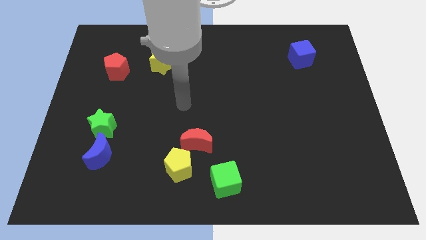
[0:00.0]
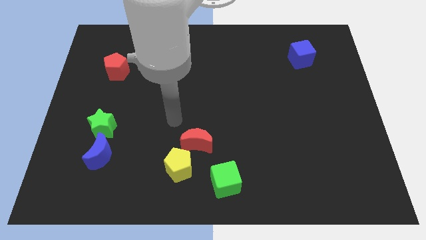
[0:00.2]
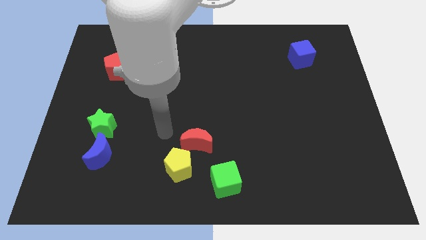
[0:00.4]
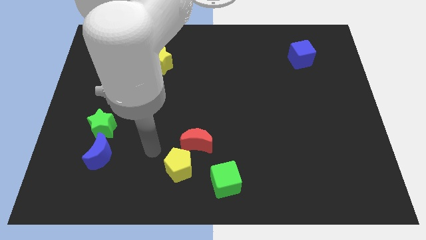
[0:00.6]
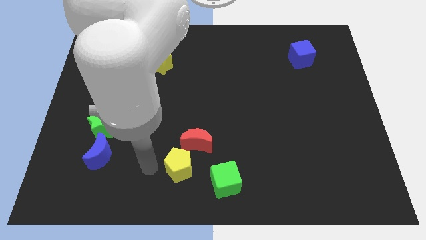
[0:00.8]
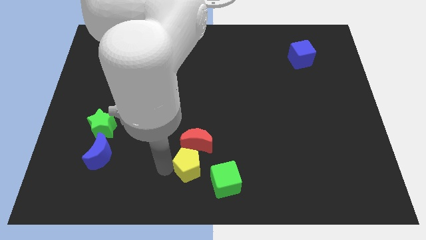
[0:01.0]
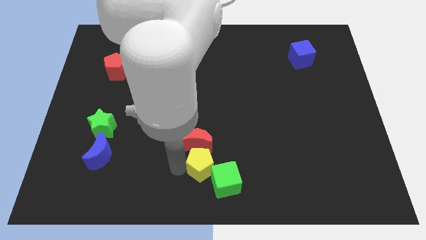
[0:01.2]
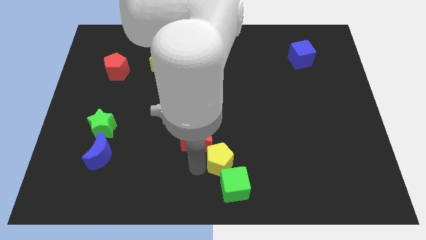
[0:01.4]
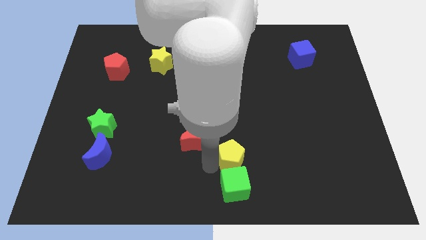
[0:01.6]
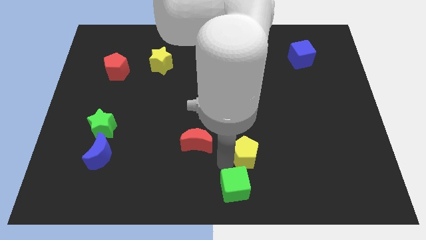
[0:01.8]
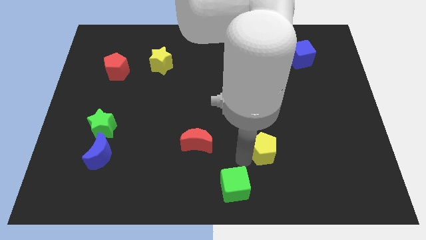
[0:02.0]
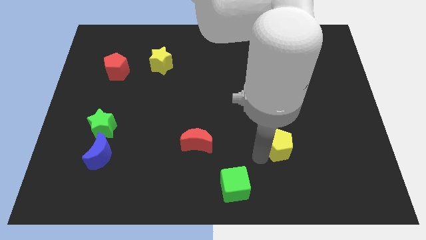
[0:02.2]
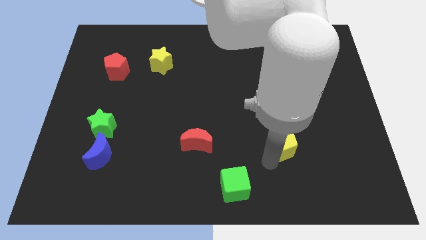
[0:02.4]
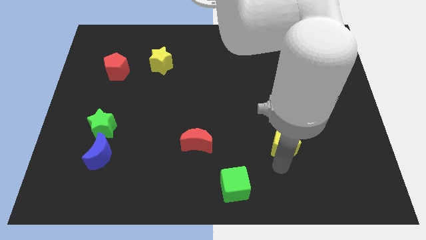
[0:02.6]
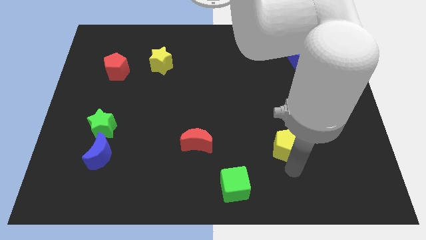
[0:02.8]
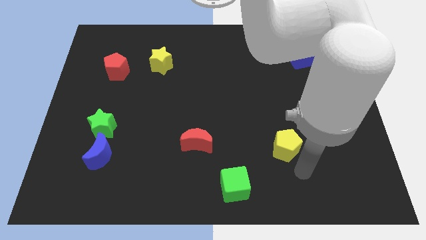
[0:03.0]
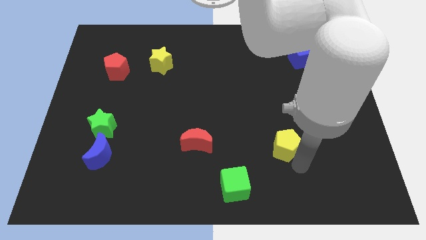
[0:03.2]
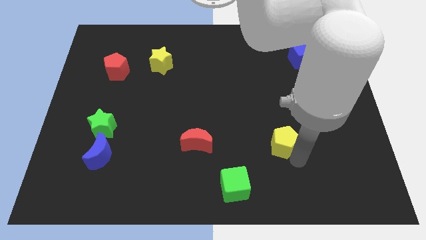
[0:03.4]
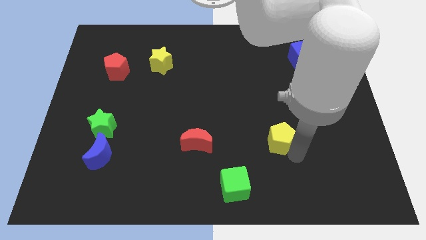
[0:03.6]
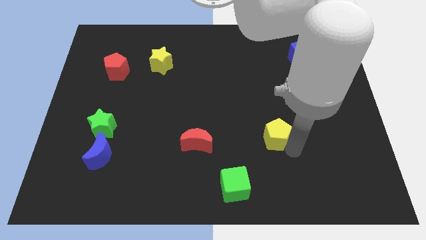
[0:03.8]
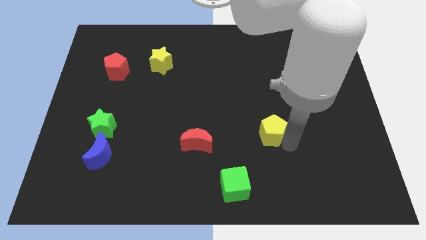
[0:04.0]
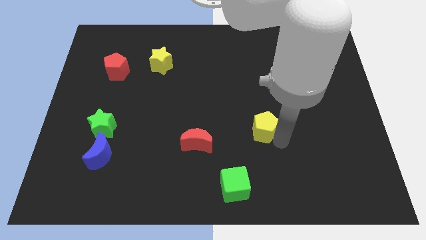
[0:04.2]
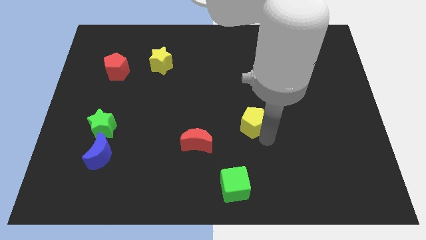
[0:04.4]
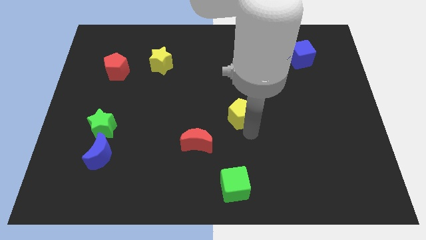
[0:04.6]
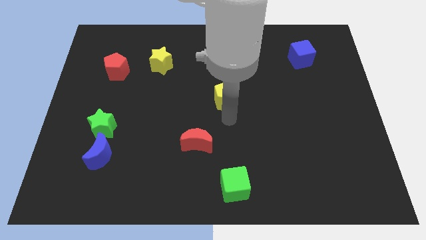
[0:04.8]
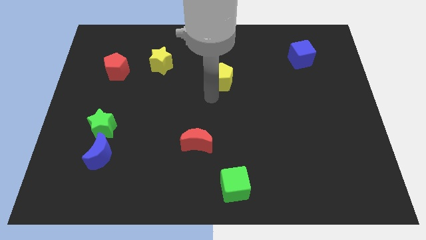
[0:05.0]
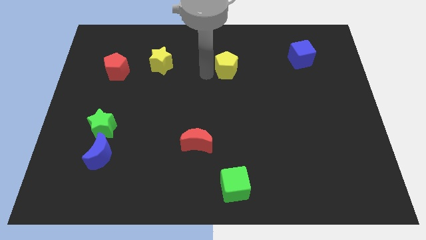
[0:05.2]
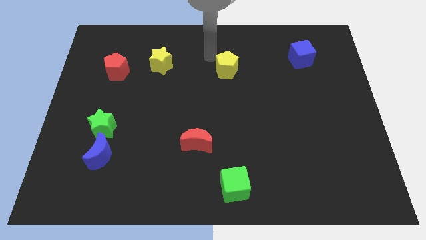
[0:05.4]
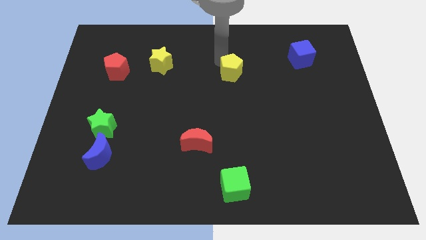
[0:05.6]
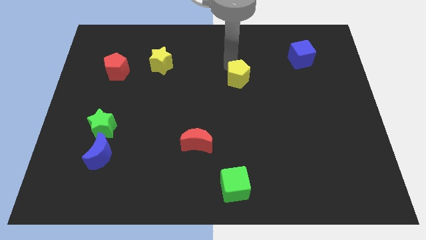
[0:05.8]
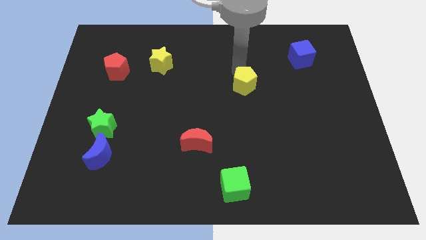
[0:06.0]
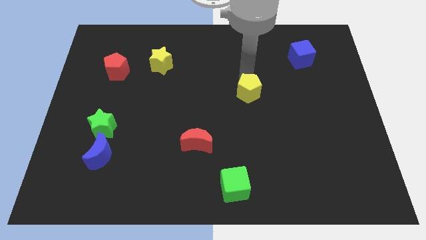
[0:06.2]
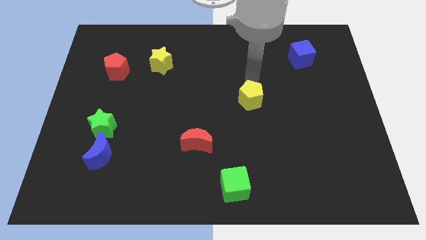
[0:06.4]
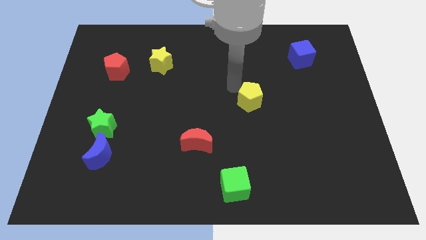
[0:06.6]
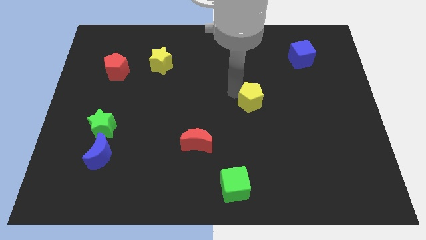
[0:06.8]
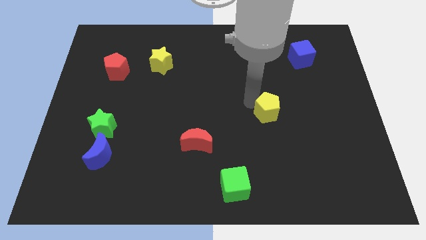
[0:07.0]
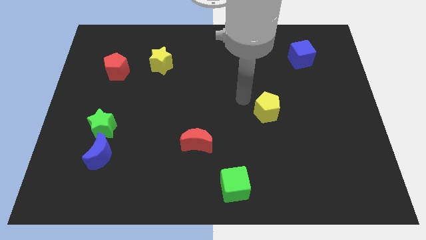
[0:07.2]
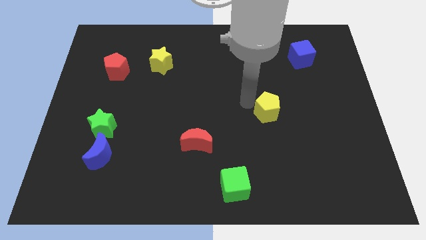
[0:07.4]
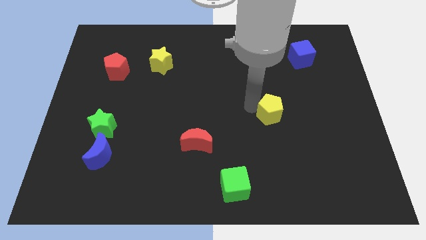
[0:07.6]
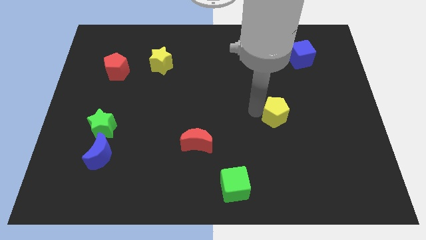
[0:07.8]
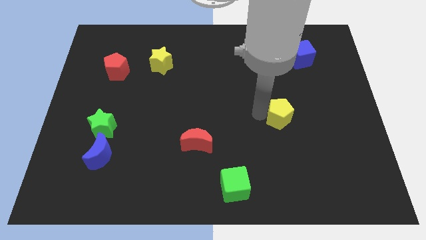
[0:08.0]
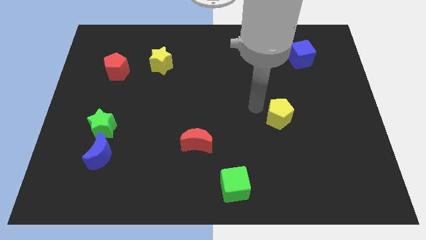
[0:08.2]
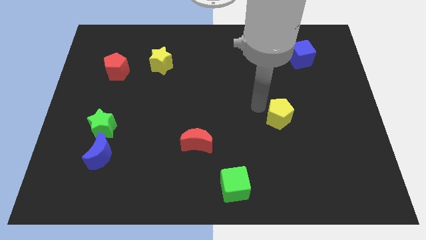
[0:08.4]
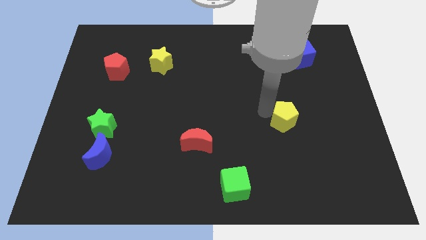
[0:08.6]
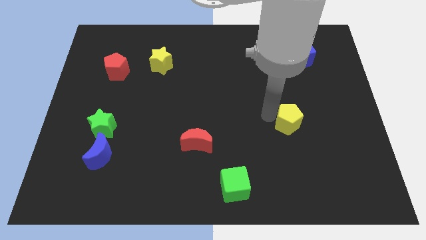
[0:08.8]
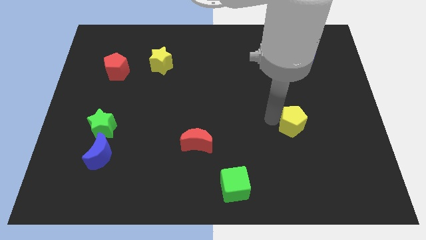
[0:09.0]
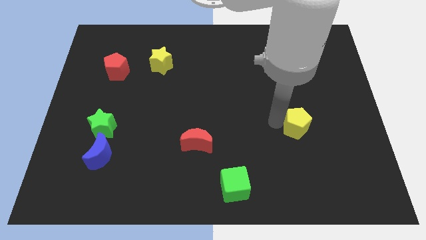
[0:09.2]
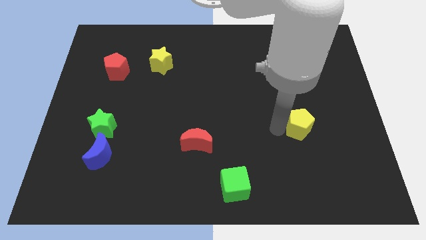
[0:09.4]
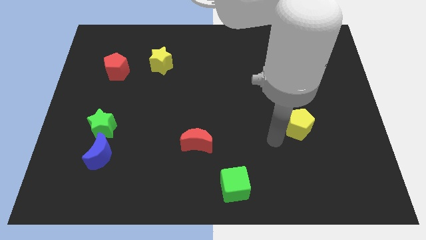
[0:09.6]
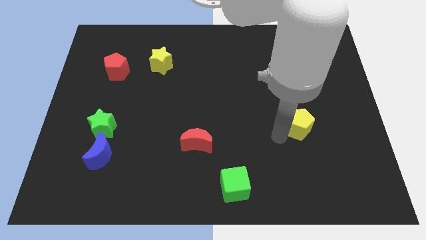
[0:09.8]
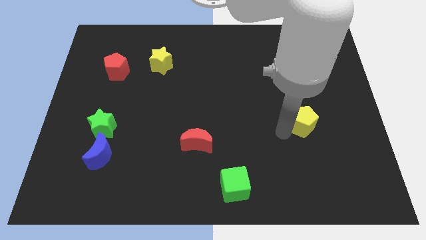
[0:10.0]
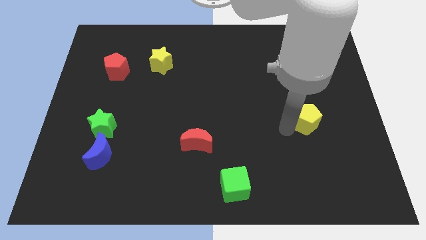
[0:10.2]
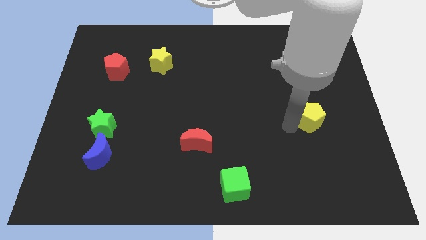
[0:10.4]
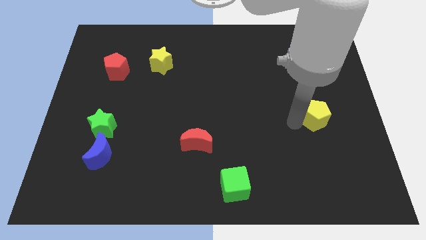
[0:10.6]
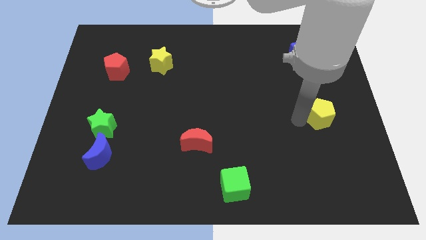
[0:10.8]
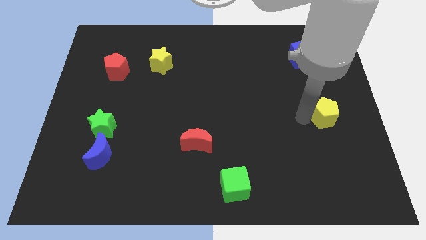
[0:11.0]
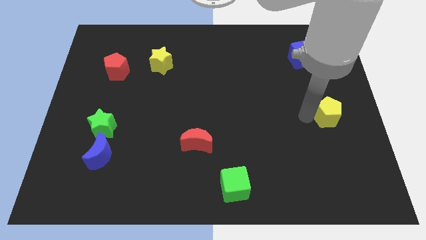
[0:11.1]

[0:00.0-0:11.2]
slide the yellow pentagon to the right side

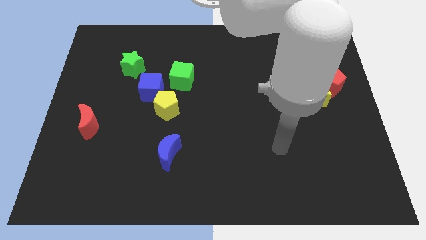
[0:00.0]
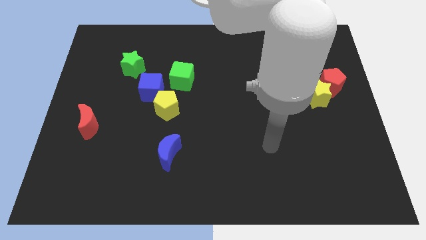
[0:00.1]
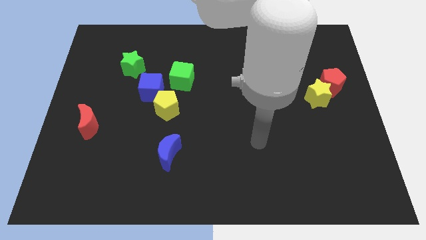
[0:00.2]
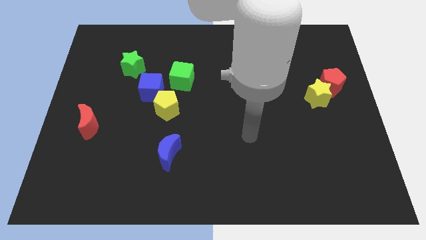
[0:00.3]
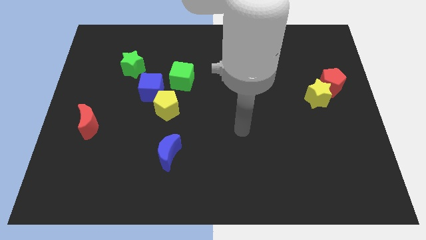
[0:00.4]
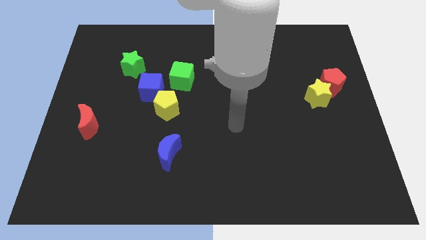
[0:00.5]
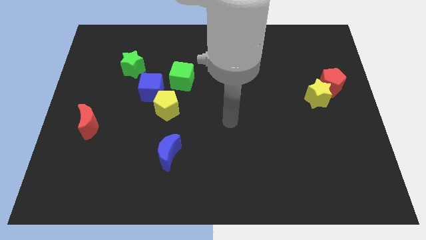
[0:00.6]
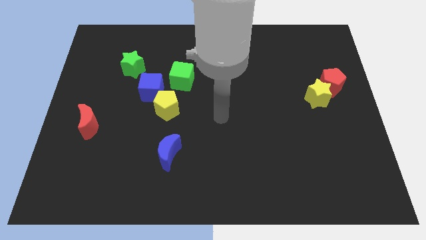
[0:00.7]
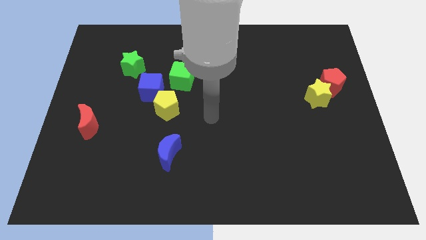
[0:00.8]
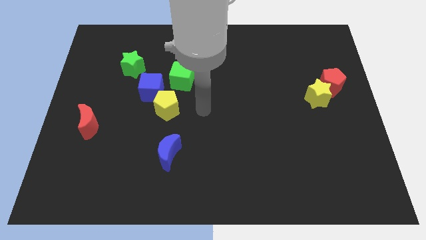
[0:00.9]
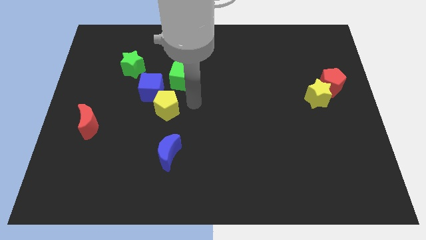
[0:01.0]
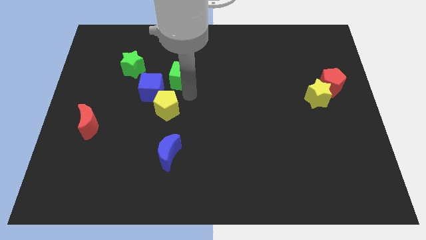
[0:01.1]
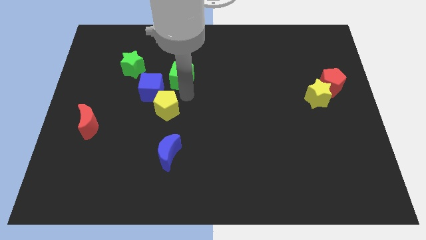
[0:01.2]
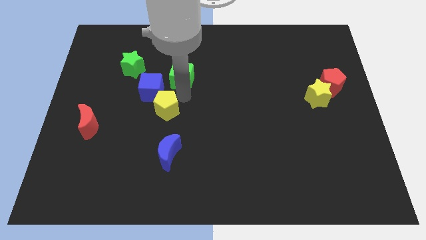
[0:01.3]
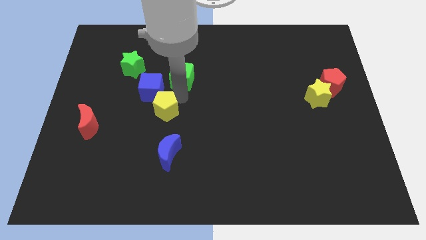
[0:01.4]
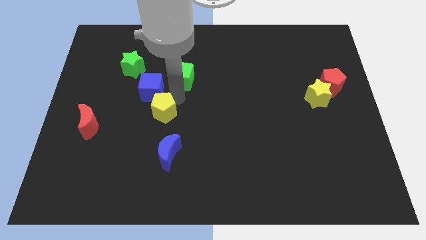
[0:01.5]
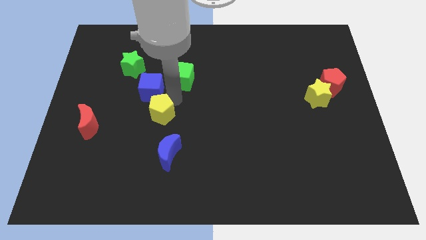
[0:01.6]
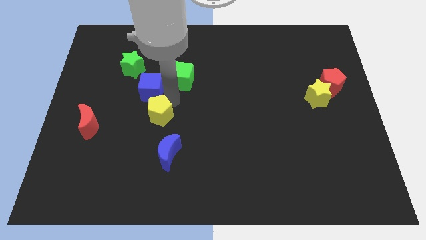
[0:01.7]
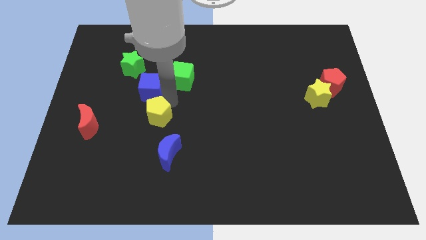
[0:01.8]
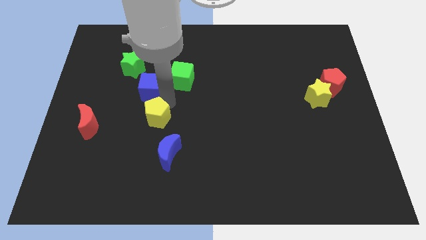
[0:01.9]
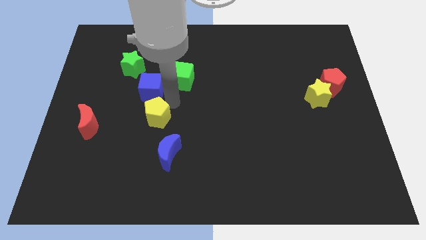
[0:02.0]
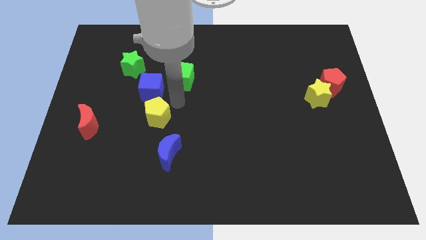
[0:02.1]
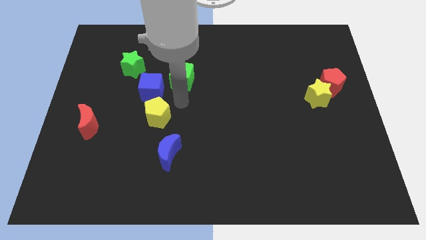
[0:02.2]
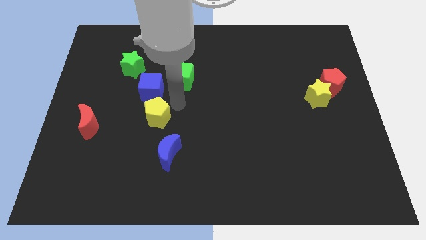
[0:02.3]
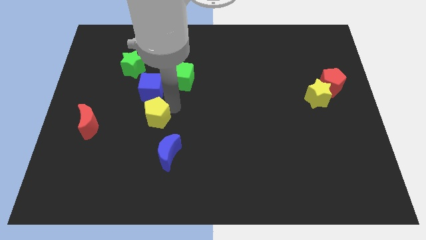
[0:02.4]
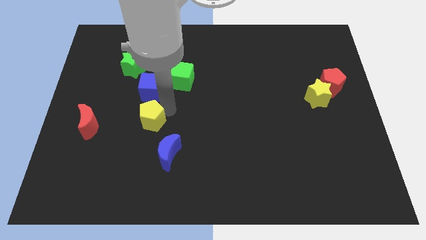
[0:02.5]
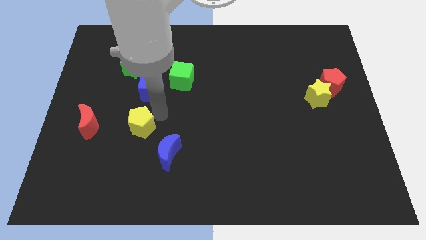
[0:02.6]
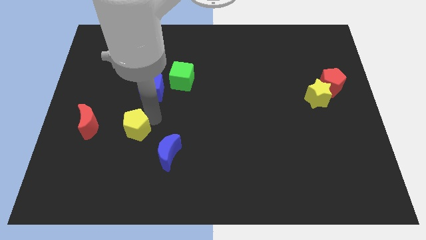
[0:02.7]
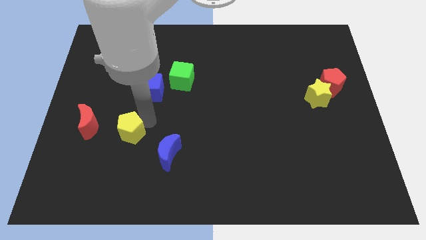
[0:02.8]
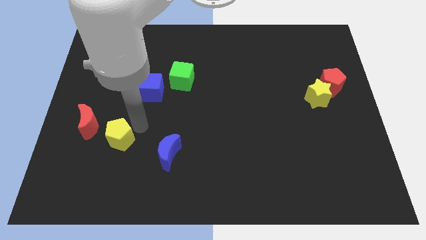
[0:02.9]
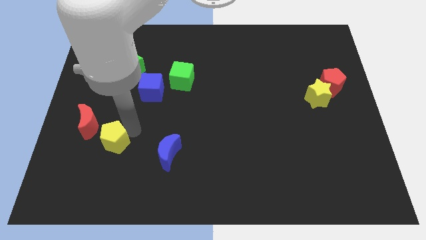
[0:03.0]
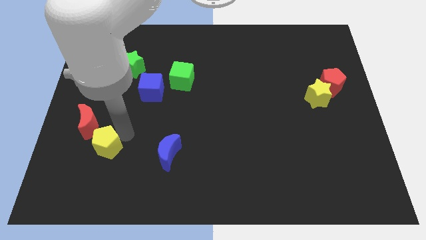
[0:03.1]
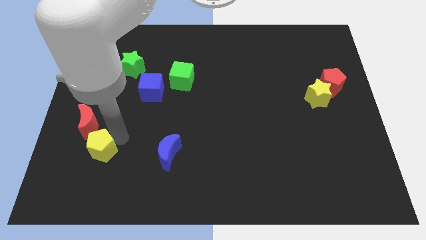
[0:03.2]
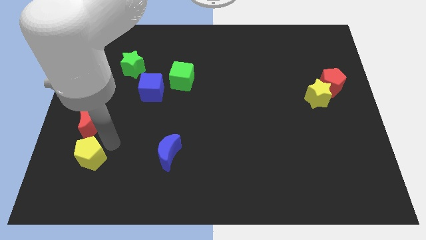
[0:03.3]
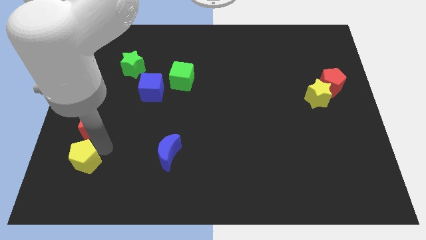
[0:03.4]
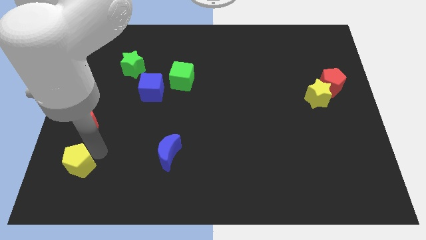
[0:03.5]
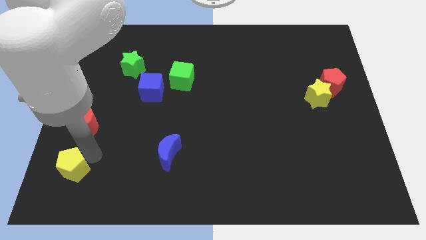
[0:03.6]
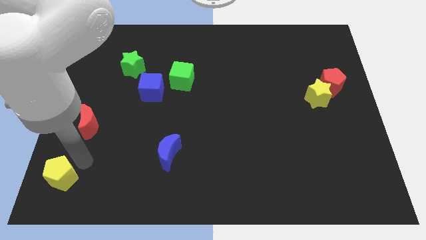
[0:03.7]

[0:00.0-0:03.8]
put the yellow pentagon to the bottom left of the board
